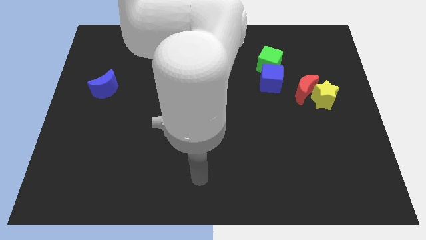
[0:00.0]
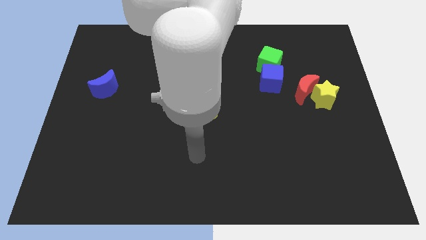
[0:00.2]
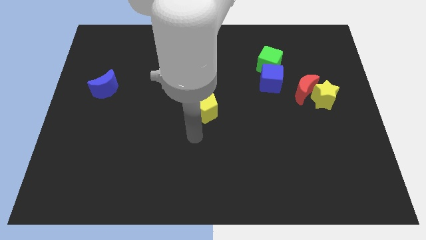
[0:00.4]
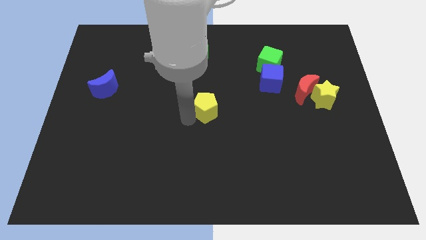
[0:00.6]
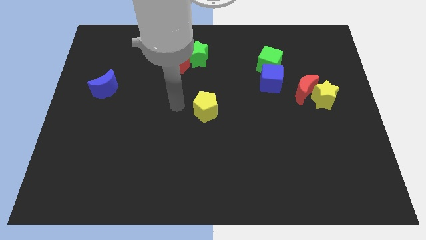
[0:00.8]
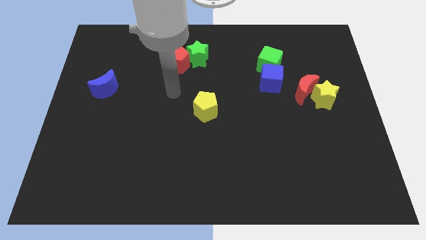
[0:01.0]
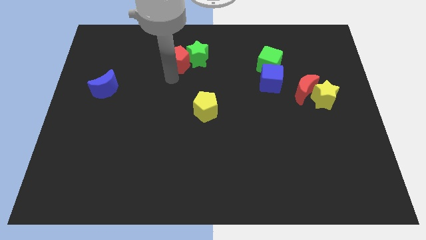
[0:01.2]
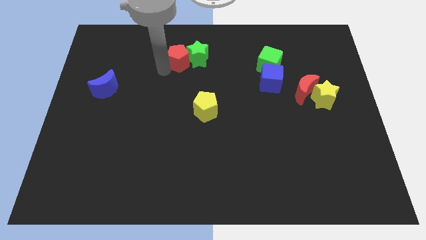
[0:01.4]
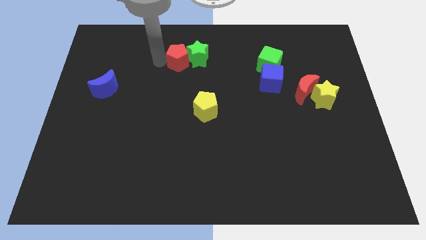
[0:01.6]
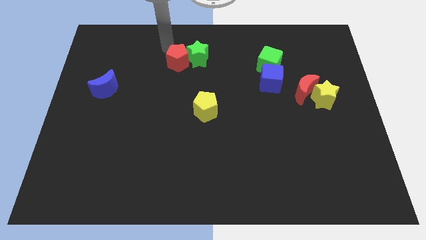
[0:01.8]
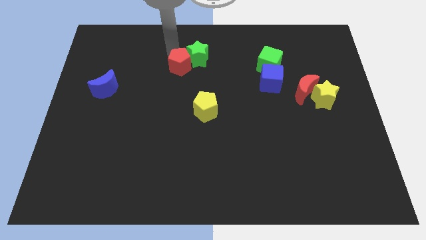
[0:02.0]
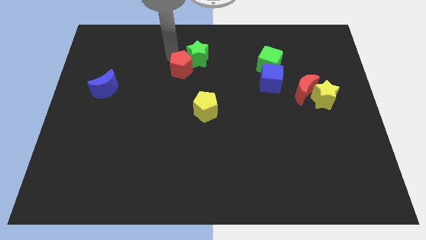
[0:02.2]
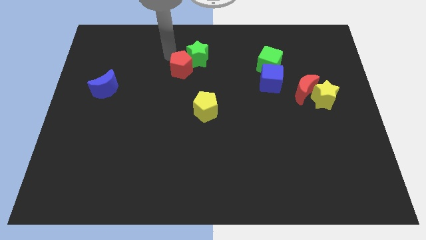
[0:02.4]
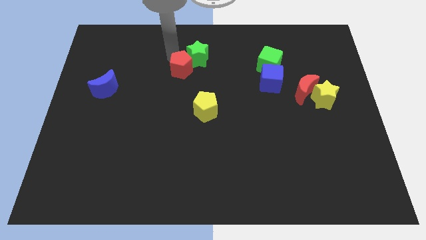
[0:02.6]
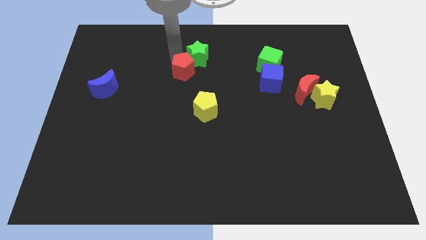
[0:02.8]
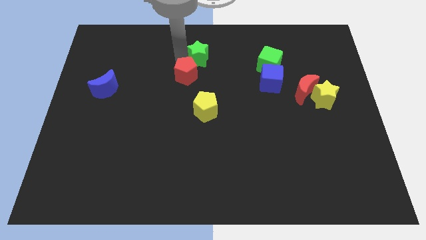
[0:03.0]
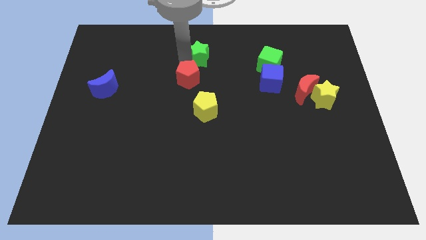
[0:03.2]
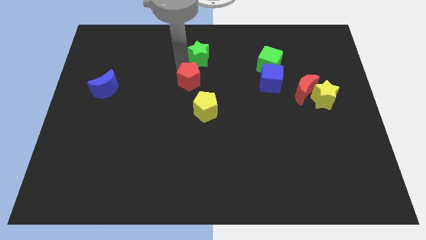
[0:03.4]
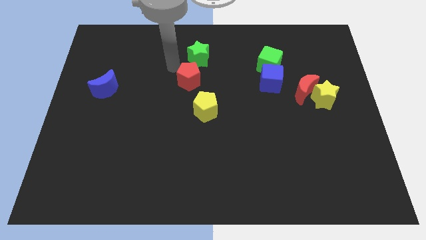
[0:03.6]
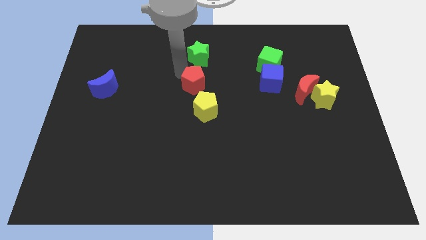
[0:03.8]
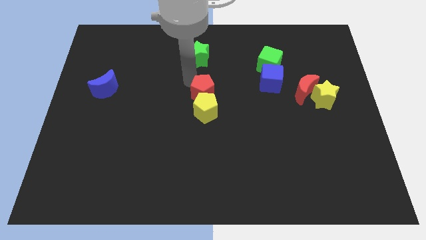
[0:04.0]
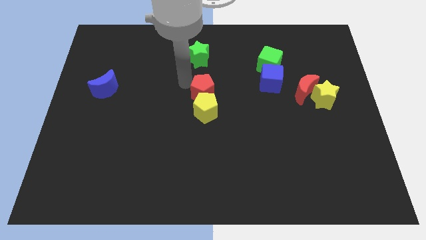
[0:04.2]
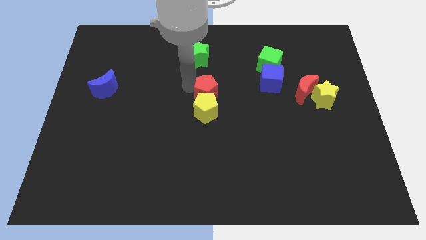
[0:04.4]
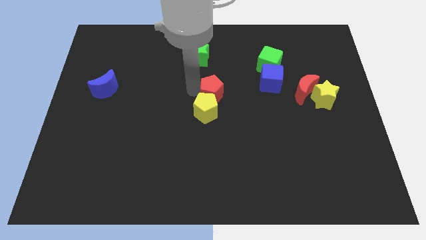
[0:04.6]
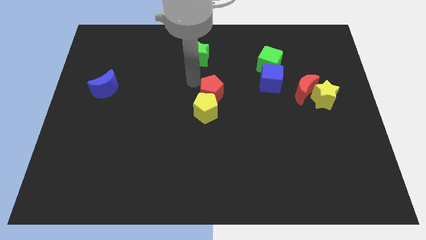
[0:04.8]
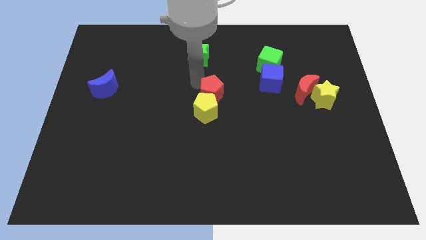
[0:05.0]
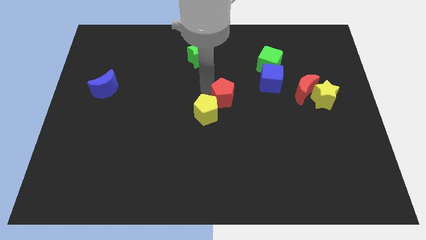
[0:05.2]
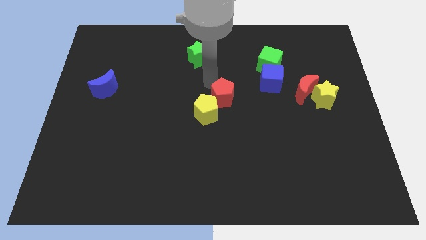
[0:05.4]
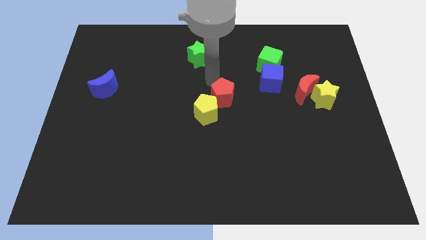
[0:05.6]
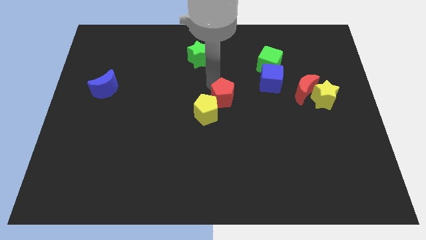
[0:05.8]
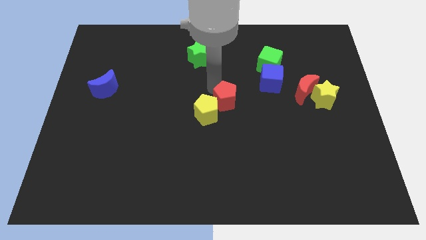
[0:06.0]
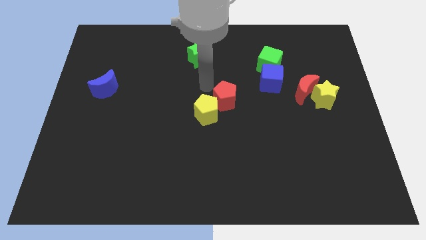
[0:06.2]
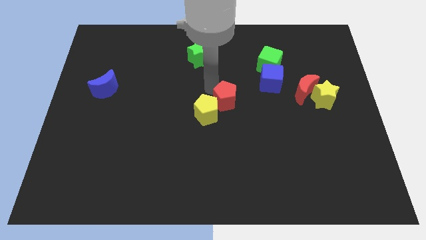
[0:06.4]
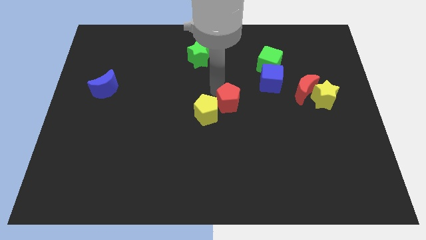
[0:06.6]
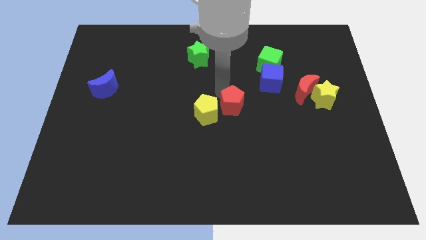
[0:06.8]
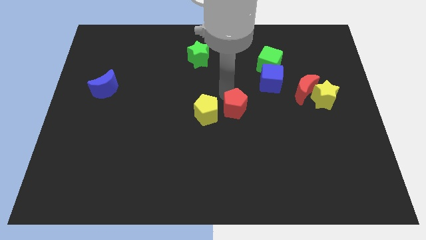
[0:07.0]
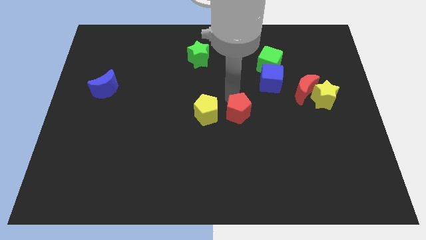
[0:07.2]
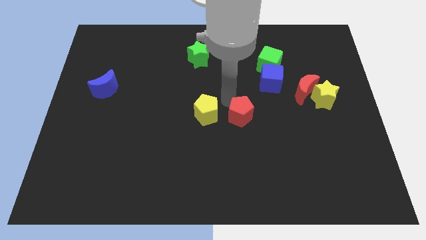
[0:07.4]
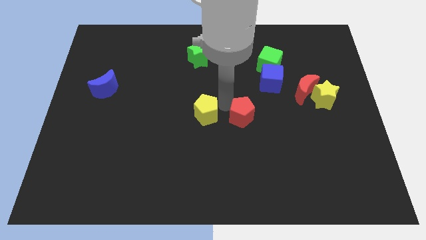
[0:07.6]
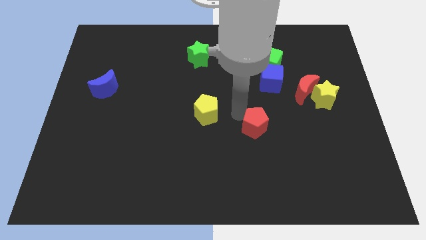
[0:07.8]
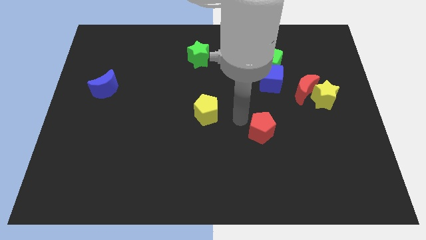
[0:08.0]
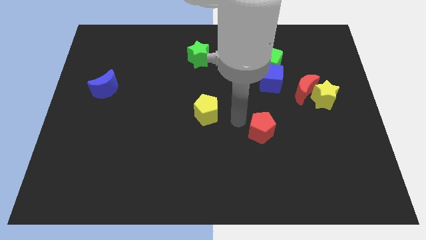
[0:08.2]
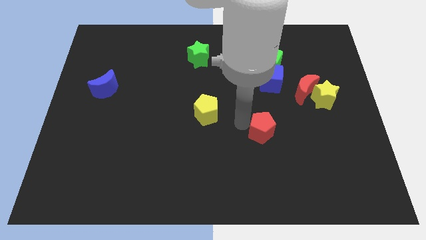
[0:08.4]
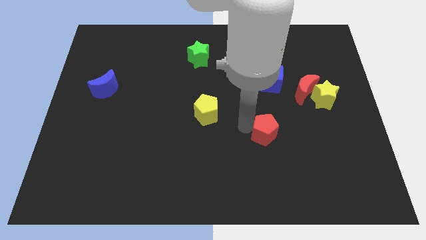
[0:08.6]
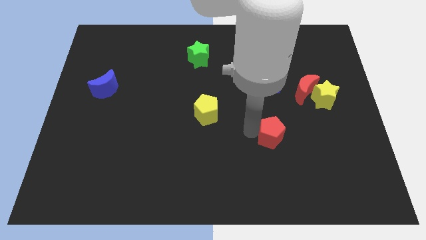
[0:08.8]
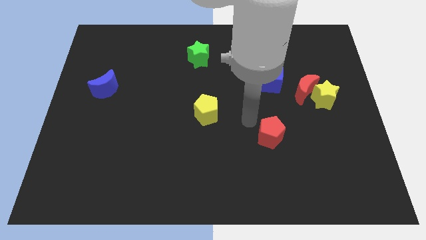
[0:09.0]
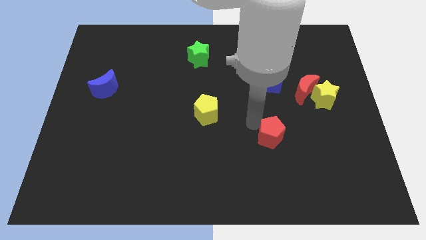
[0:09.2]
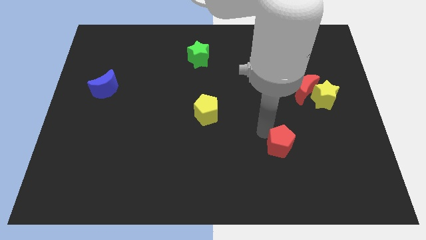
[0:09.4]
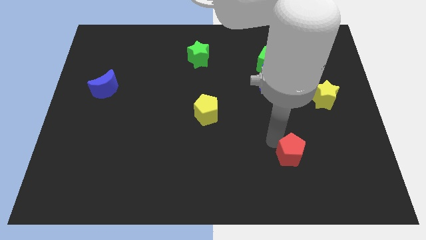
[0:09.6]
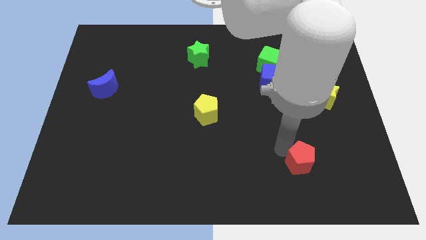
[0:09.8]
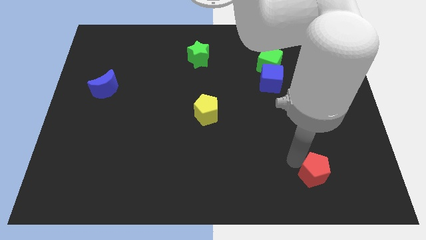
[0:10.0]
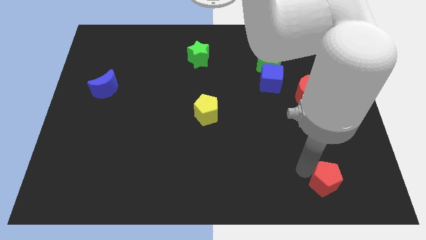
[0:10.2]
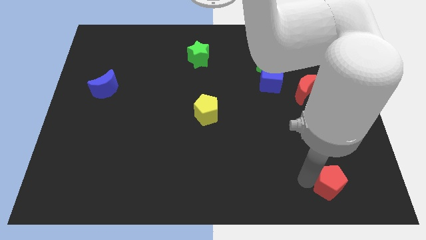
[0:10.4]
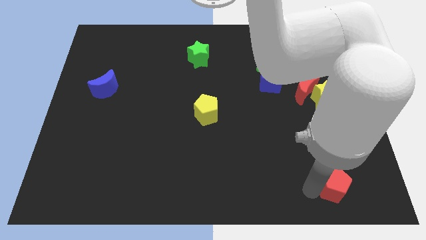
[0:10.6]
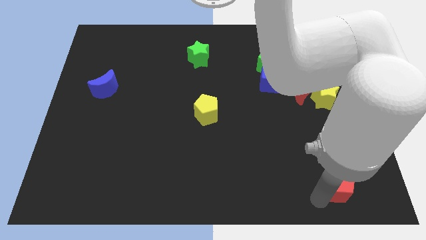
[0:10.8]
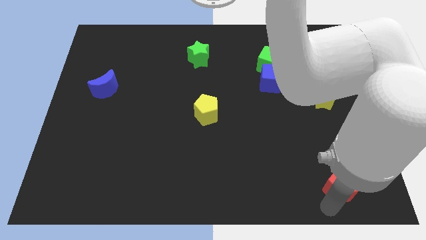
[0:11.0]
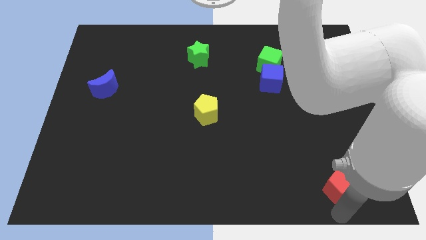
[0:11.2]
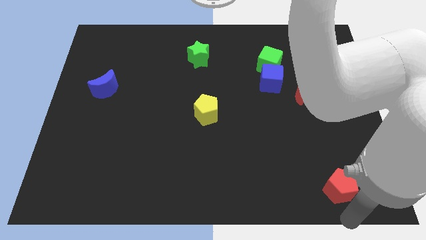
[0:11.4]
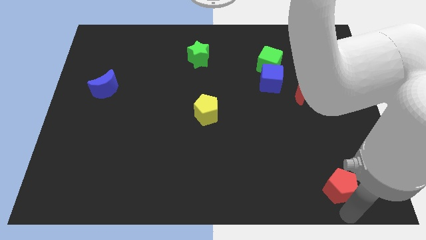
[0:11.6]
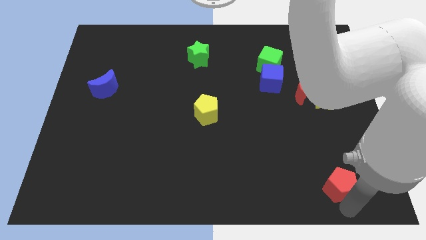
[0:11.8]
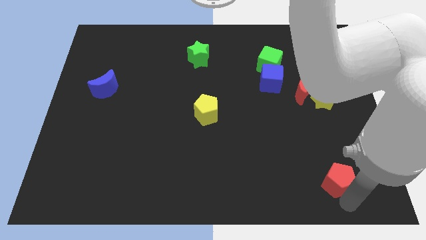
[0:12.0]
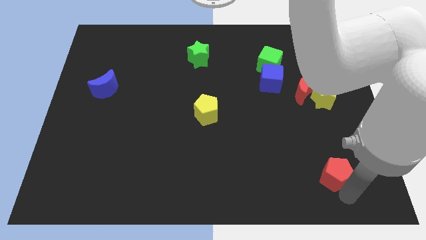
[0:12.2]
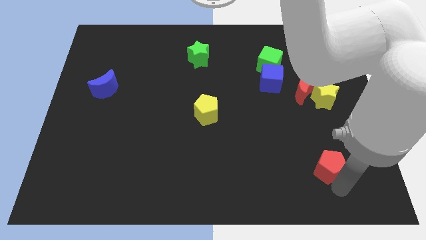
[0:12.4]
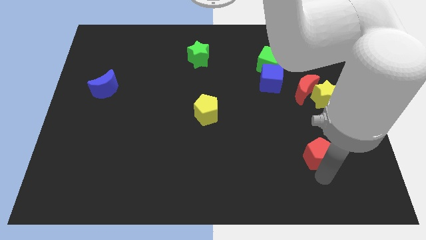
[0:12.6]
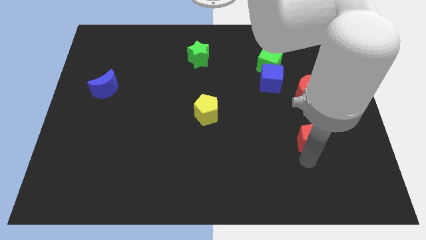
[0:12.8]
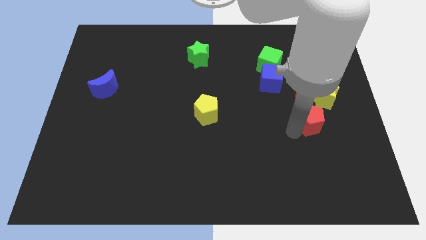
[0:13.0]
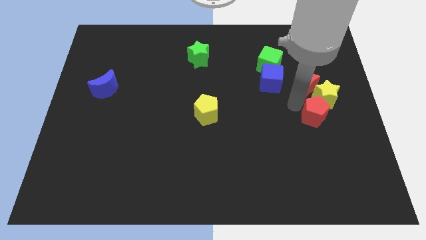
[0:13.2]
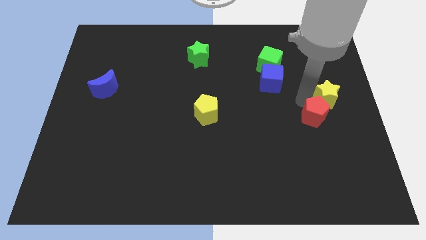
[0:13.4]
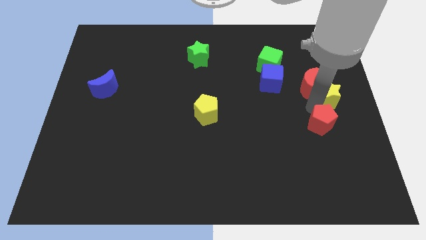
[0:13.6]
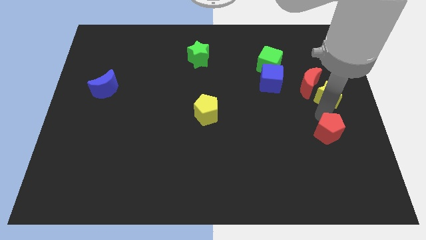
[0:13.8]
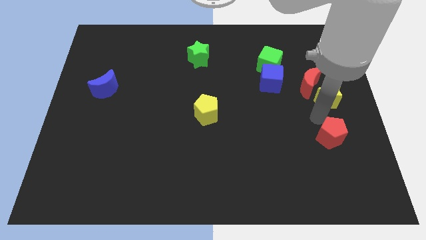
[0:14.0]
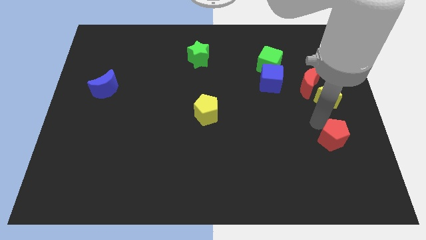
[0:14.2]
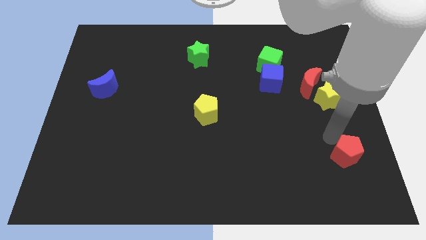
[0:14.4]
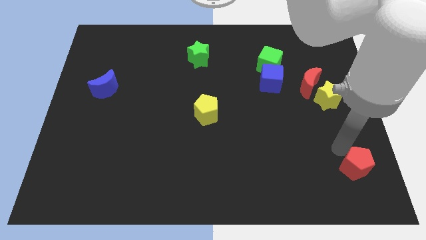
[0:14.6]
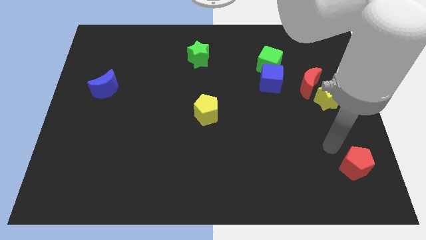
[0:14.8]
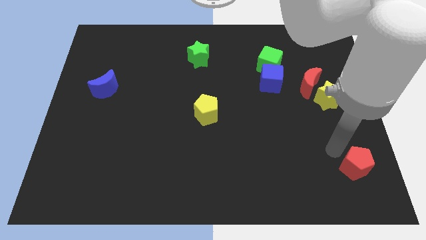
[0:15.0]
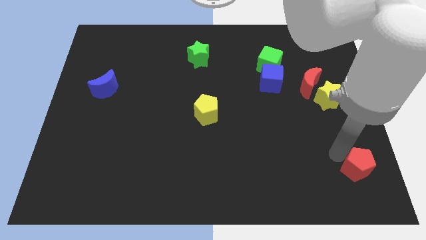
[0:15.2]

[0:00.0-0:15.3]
slide the red pentagon to the lower right corner

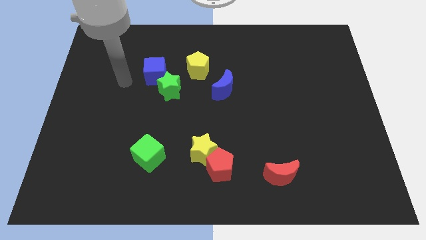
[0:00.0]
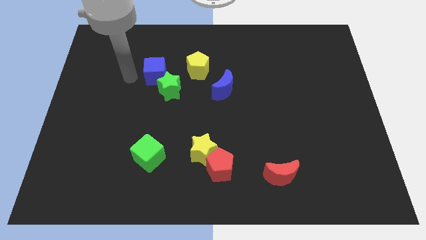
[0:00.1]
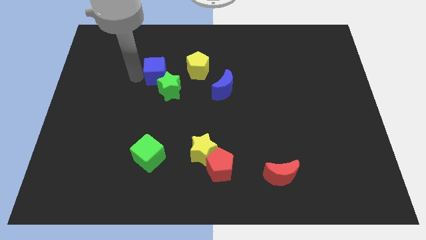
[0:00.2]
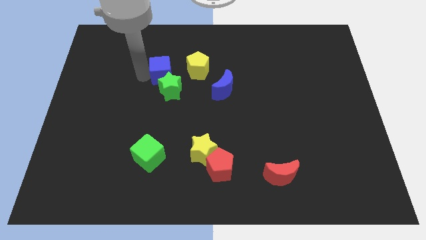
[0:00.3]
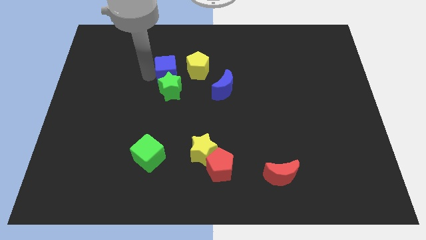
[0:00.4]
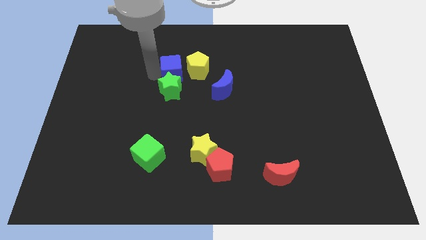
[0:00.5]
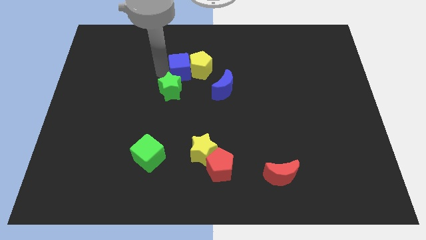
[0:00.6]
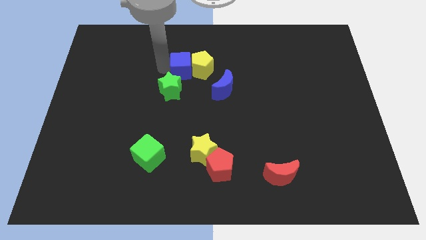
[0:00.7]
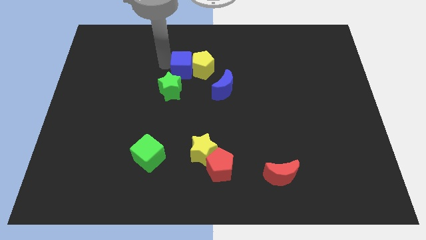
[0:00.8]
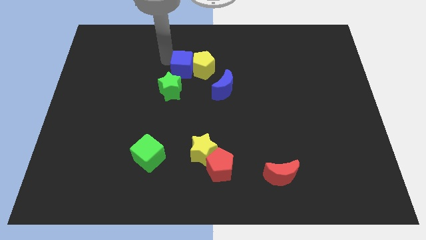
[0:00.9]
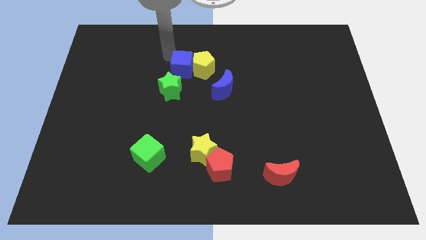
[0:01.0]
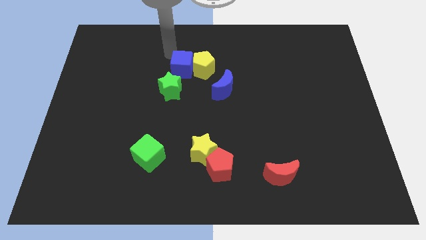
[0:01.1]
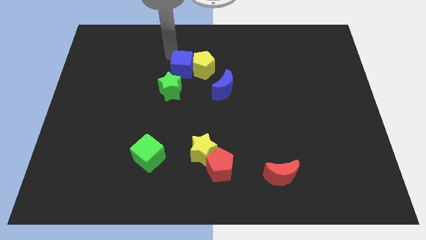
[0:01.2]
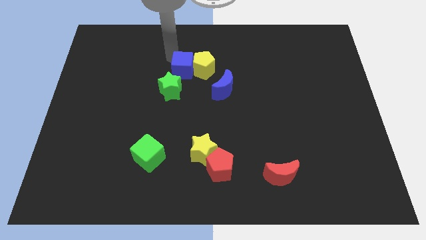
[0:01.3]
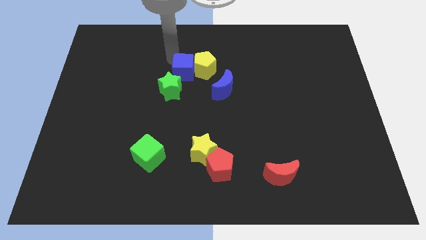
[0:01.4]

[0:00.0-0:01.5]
push the blue cube to the middle of the board
